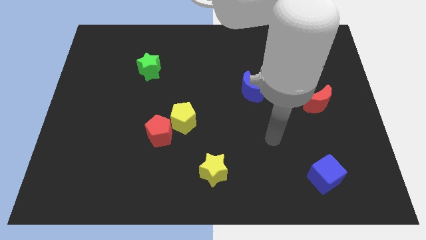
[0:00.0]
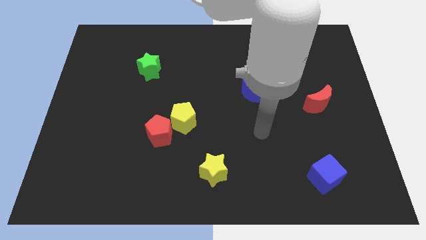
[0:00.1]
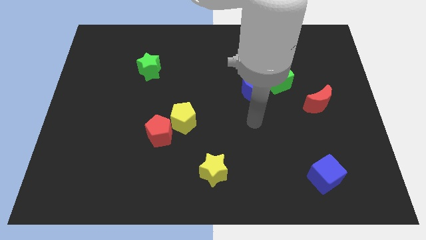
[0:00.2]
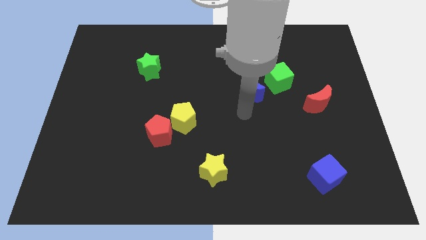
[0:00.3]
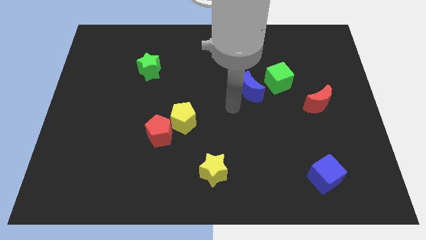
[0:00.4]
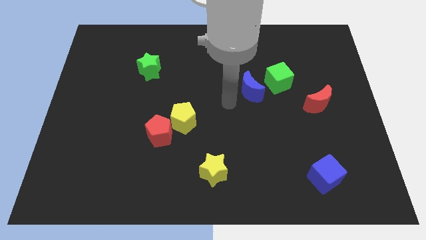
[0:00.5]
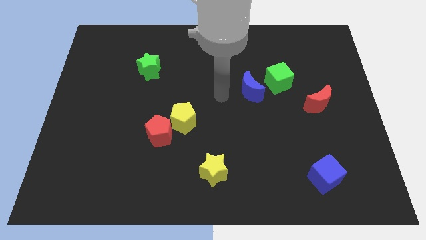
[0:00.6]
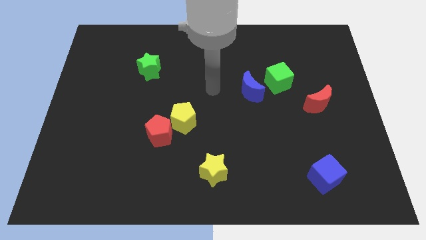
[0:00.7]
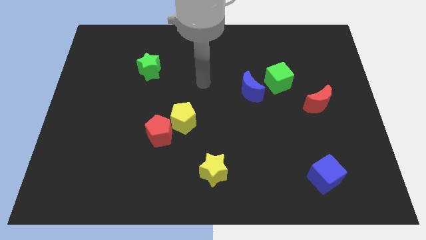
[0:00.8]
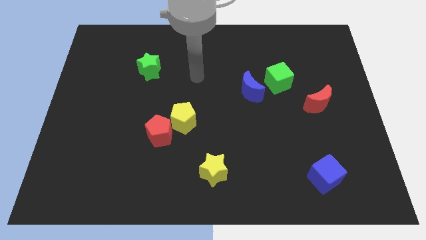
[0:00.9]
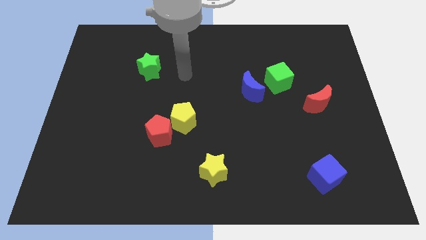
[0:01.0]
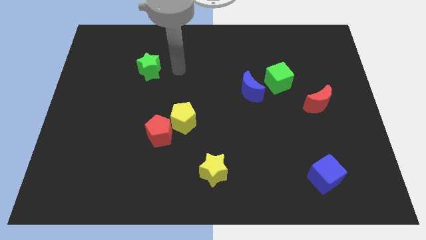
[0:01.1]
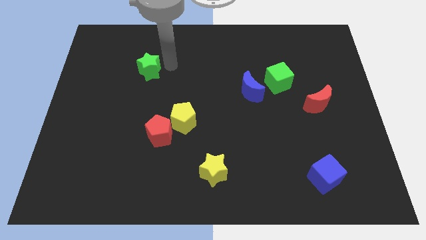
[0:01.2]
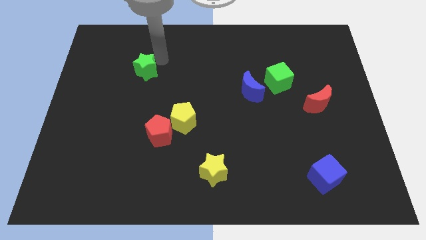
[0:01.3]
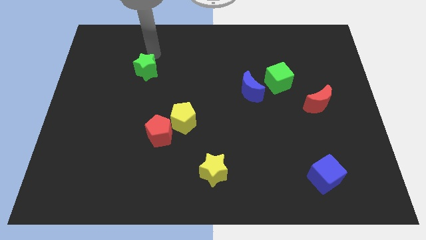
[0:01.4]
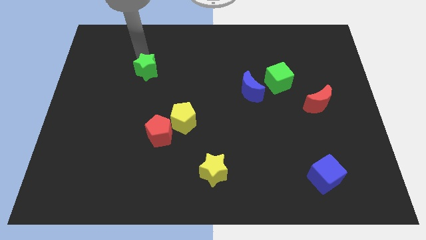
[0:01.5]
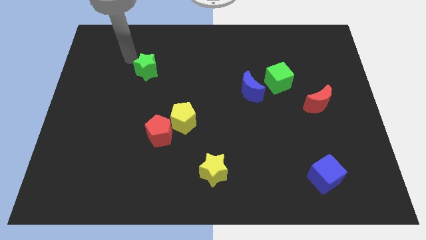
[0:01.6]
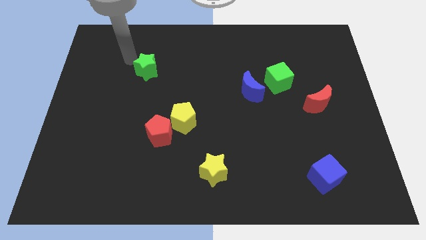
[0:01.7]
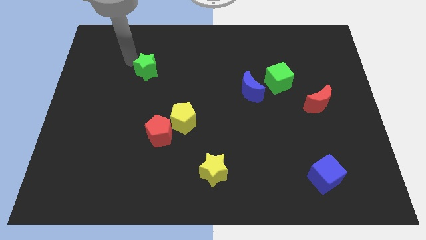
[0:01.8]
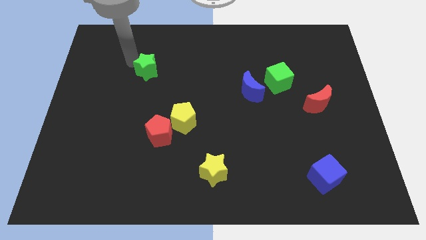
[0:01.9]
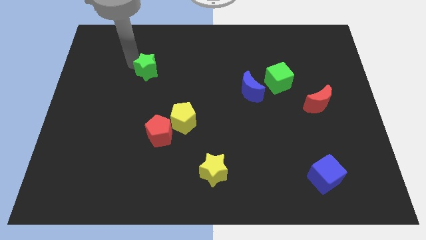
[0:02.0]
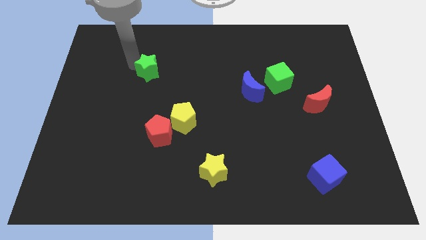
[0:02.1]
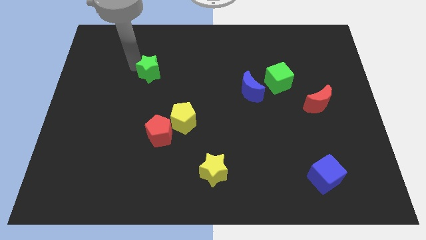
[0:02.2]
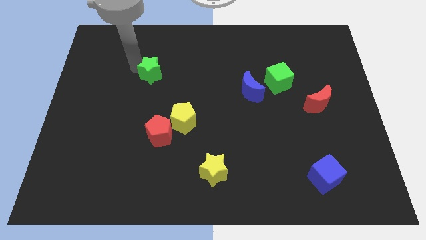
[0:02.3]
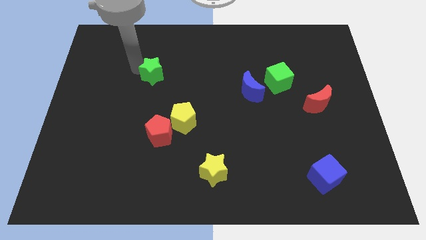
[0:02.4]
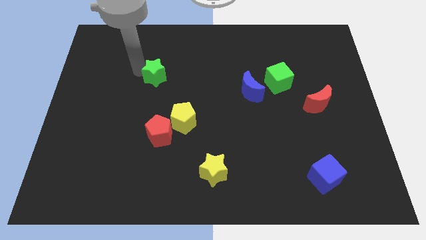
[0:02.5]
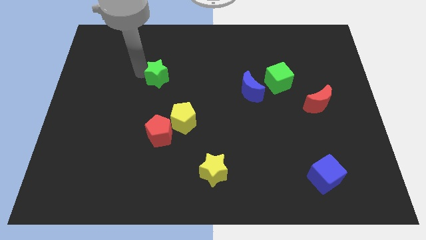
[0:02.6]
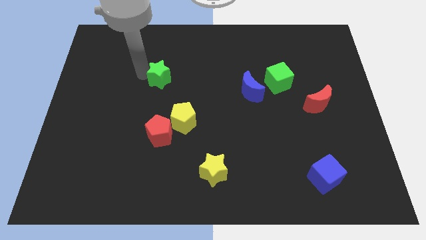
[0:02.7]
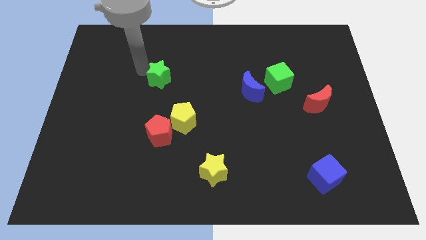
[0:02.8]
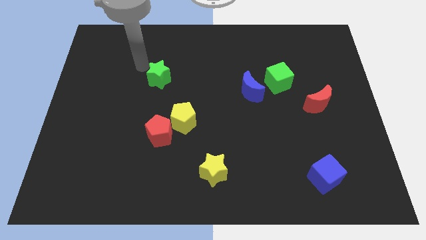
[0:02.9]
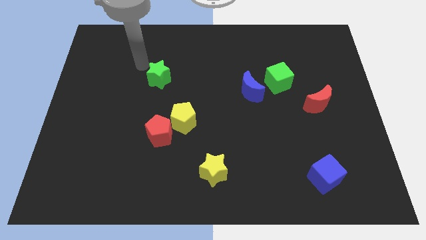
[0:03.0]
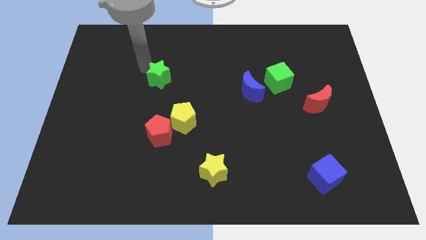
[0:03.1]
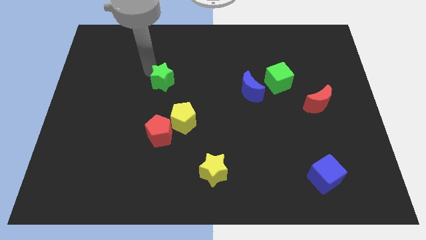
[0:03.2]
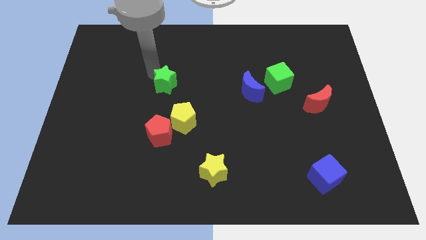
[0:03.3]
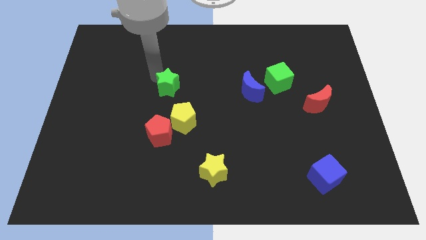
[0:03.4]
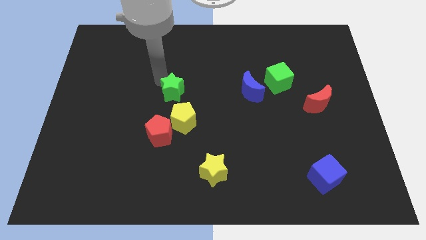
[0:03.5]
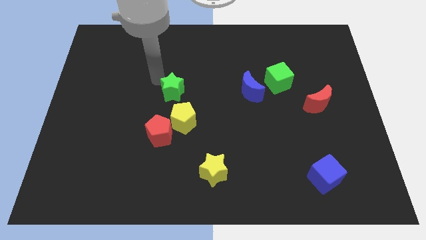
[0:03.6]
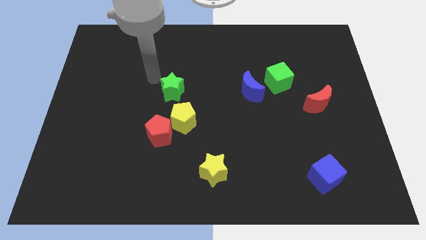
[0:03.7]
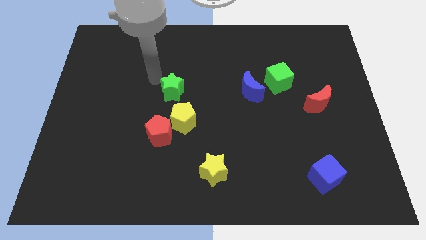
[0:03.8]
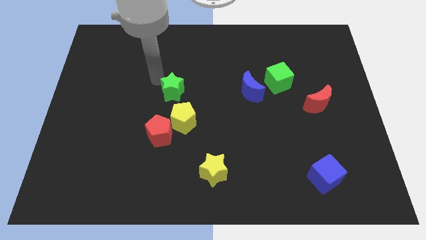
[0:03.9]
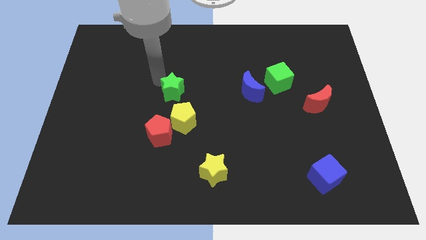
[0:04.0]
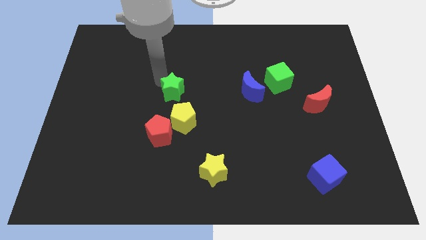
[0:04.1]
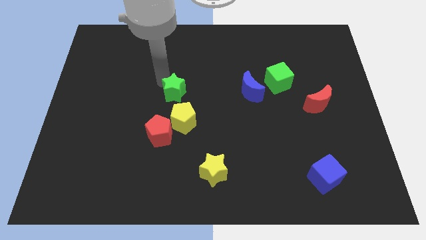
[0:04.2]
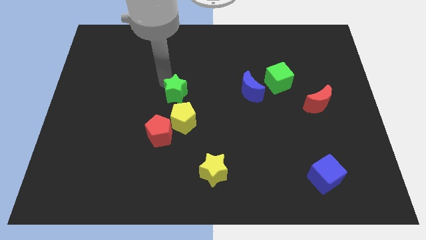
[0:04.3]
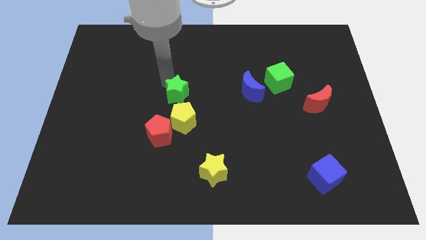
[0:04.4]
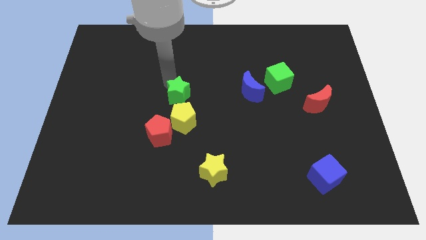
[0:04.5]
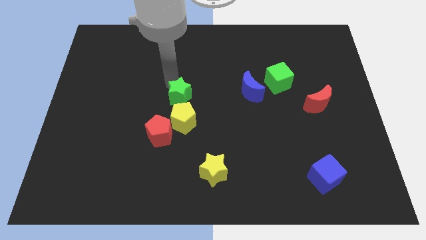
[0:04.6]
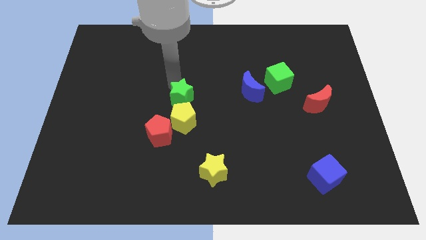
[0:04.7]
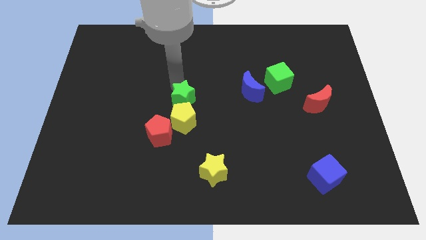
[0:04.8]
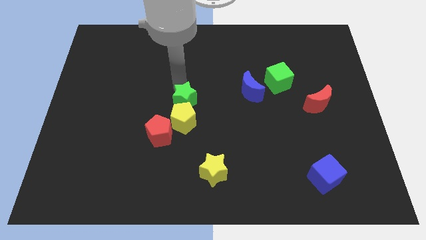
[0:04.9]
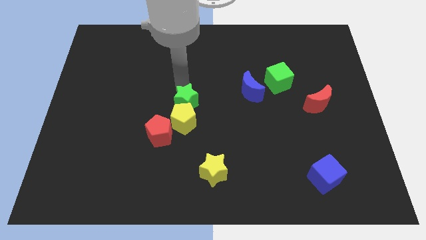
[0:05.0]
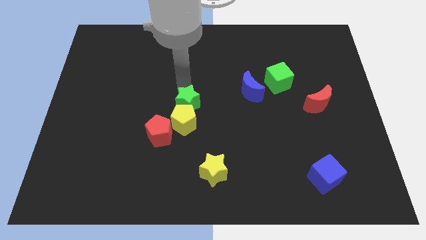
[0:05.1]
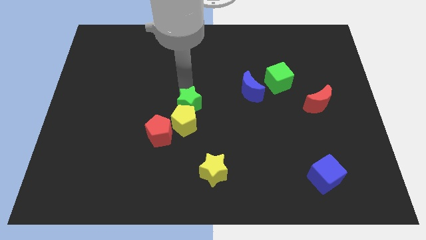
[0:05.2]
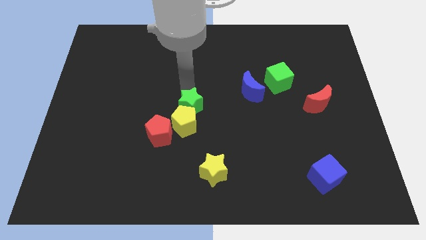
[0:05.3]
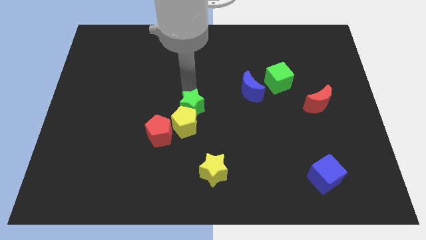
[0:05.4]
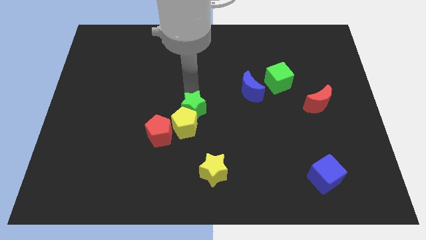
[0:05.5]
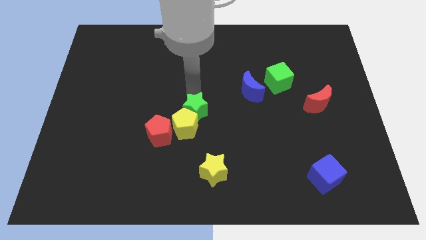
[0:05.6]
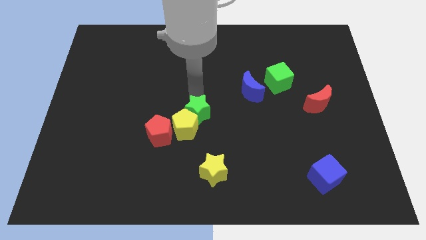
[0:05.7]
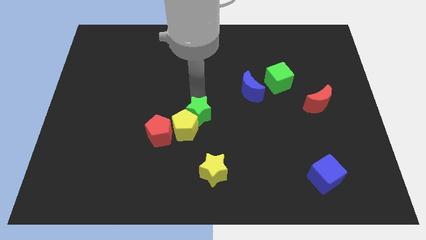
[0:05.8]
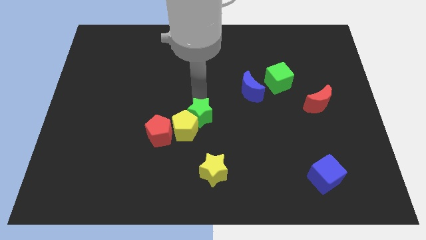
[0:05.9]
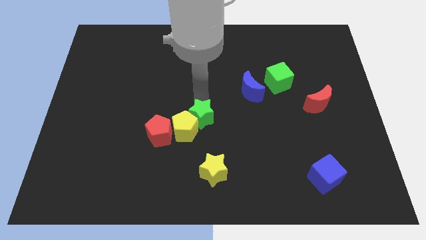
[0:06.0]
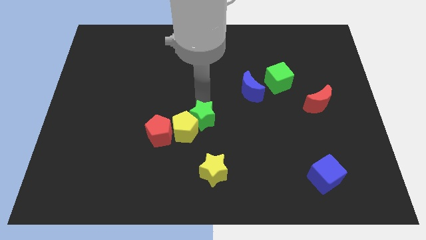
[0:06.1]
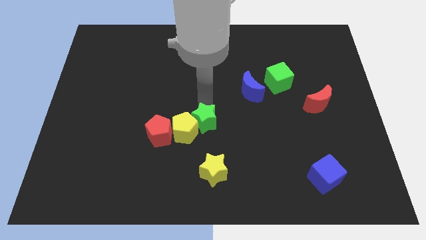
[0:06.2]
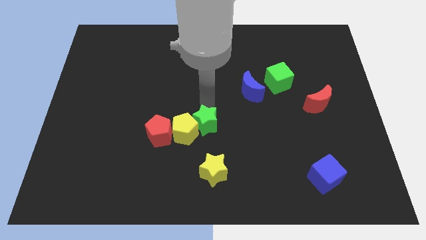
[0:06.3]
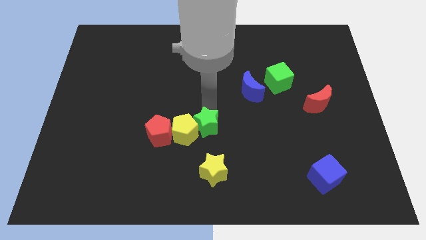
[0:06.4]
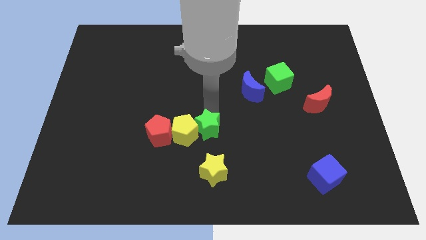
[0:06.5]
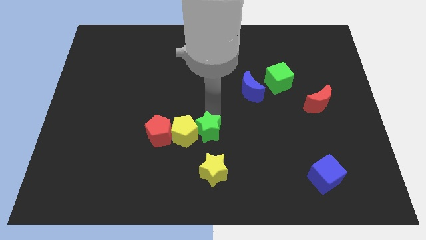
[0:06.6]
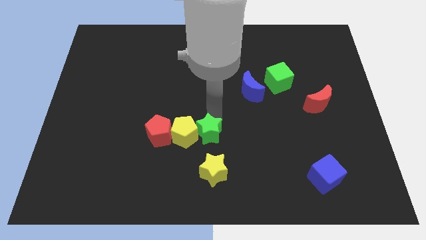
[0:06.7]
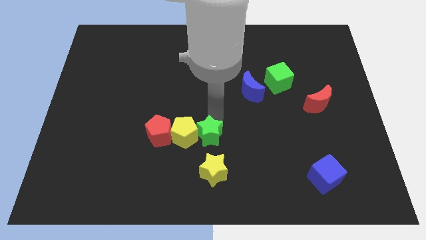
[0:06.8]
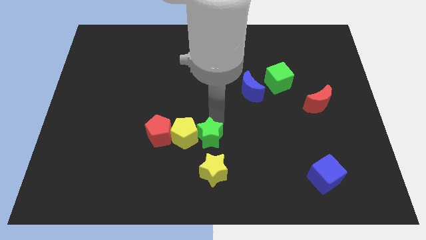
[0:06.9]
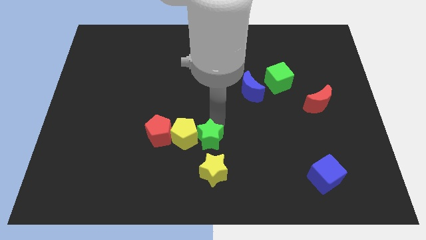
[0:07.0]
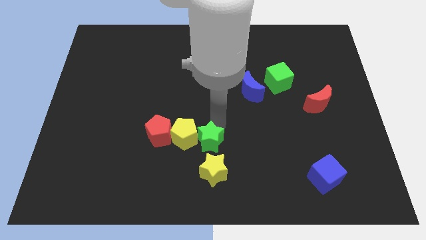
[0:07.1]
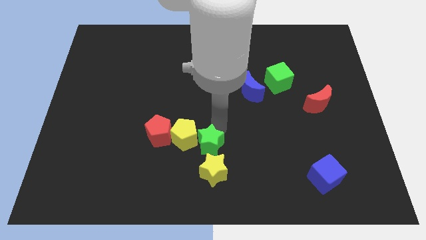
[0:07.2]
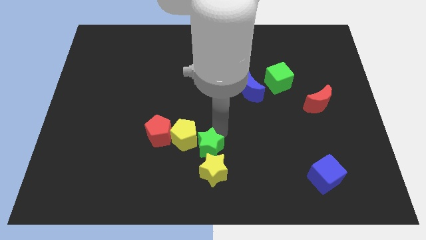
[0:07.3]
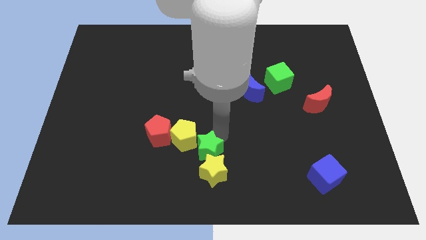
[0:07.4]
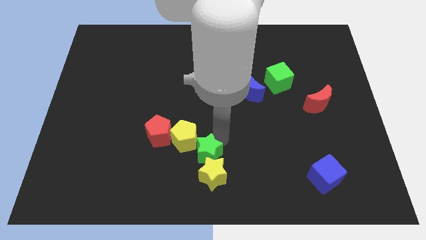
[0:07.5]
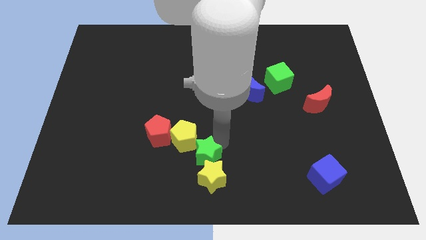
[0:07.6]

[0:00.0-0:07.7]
move the green star to the bottom side
